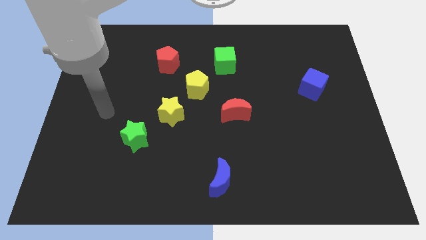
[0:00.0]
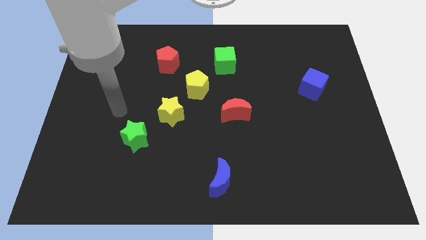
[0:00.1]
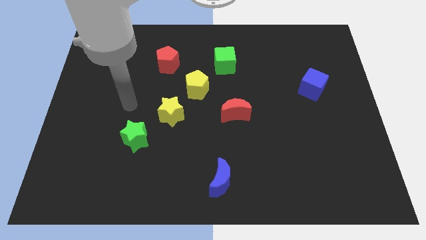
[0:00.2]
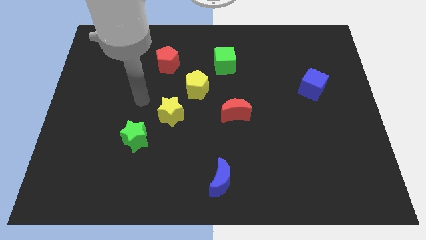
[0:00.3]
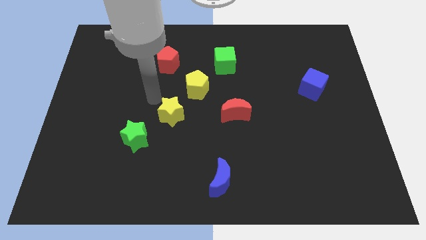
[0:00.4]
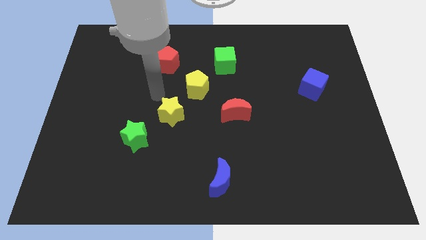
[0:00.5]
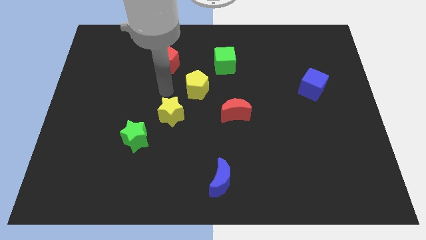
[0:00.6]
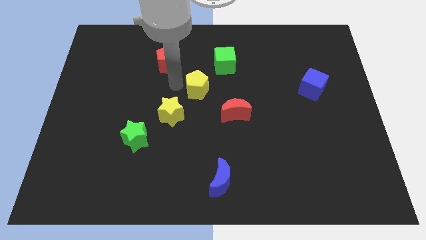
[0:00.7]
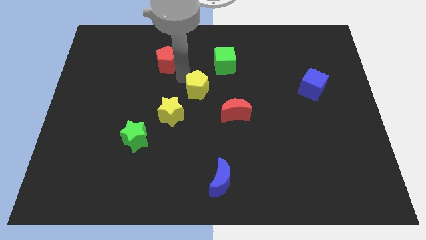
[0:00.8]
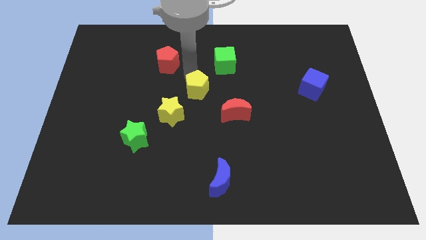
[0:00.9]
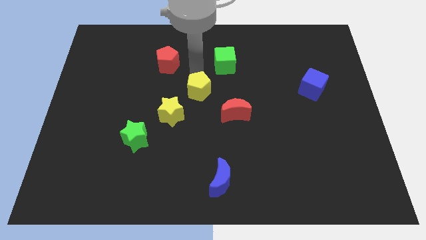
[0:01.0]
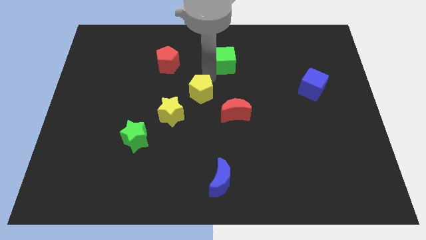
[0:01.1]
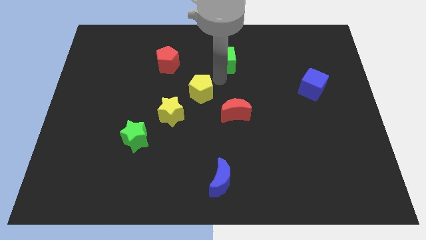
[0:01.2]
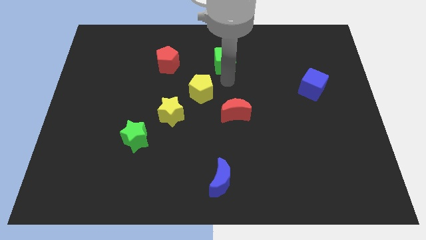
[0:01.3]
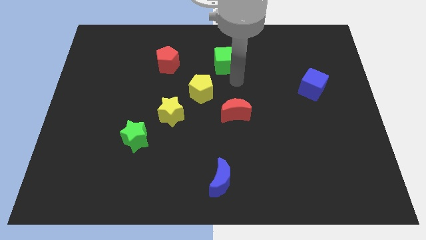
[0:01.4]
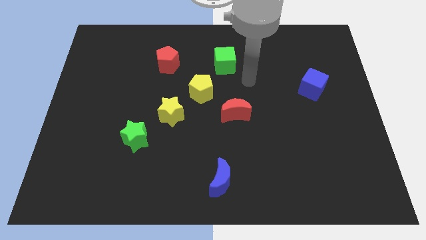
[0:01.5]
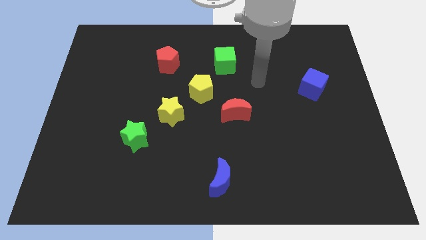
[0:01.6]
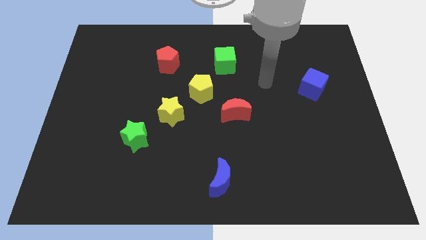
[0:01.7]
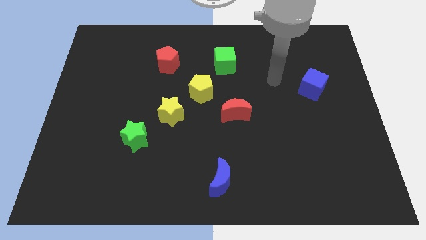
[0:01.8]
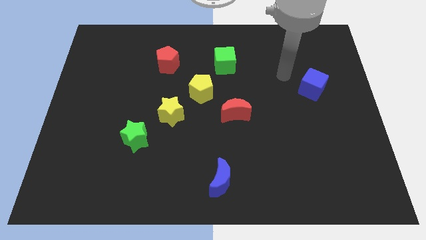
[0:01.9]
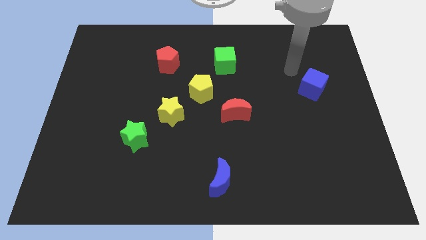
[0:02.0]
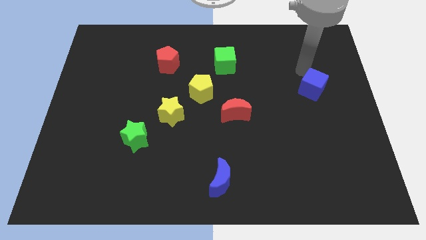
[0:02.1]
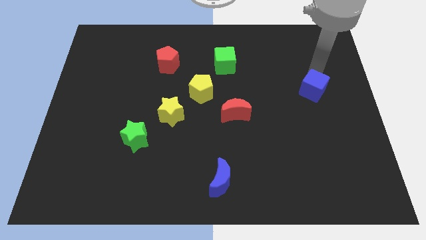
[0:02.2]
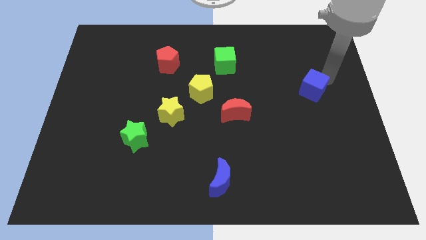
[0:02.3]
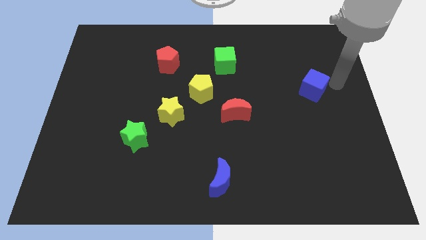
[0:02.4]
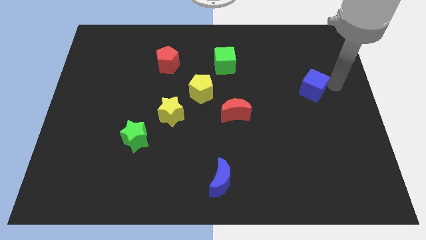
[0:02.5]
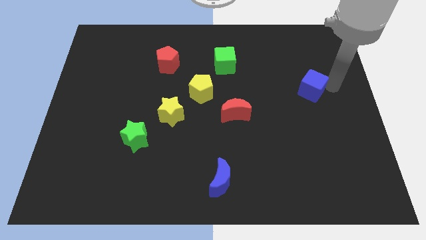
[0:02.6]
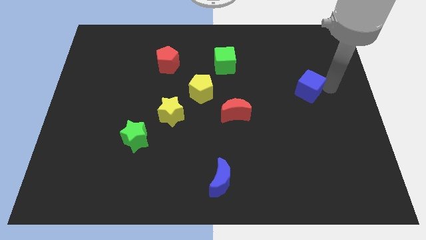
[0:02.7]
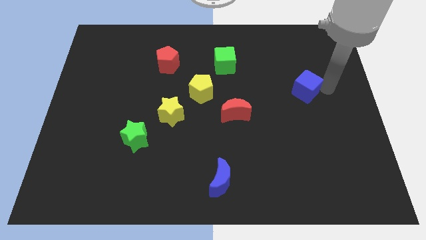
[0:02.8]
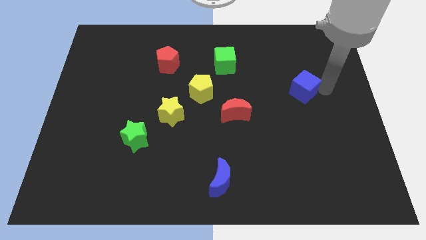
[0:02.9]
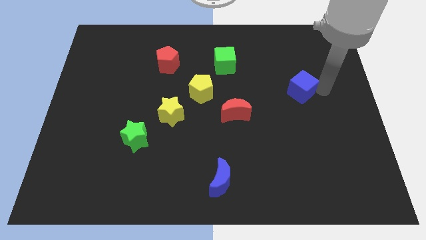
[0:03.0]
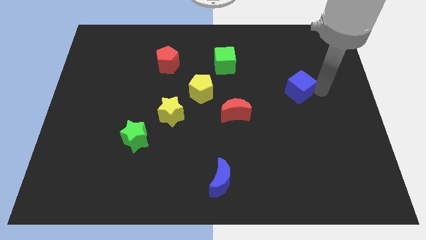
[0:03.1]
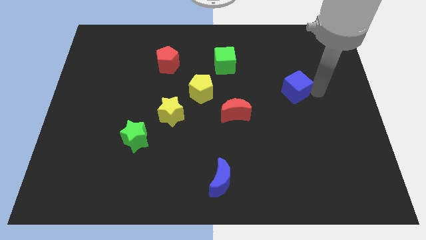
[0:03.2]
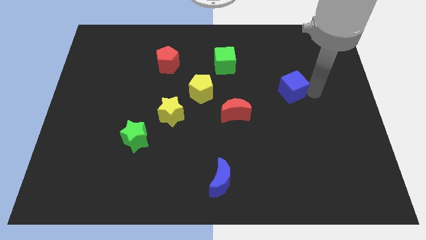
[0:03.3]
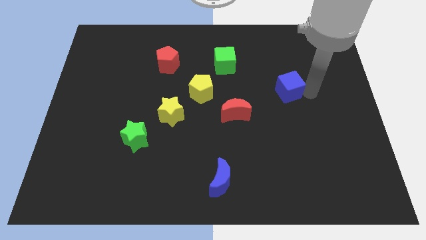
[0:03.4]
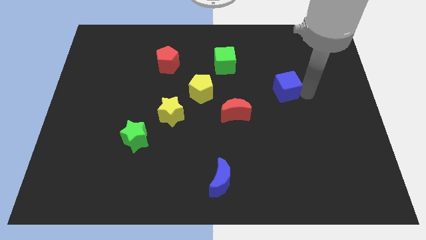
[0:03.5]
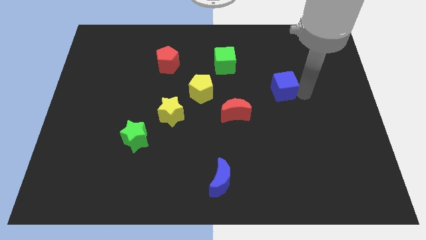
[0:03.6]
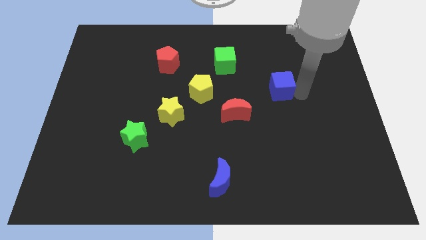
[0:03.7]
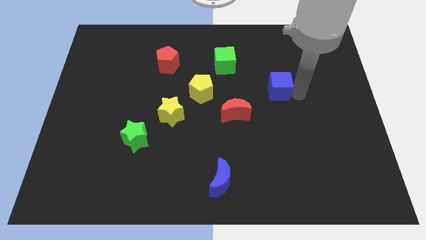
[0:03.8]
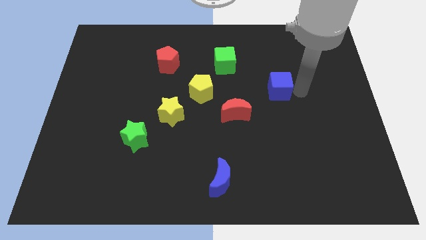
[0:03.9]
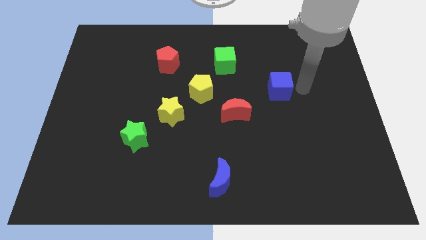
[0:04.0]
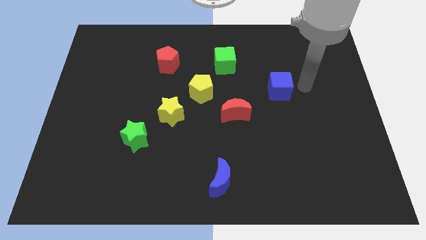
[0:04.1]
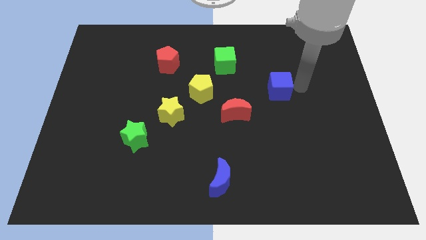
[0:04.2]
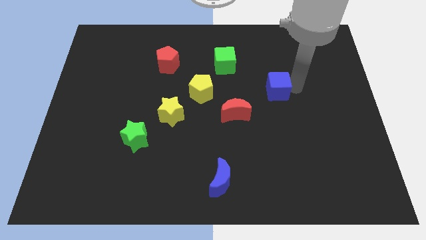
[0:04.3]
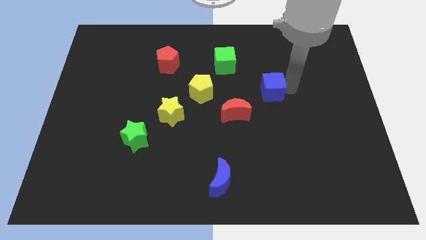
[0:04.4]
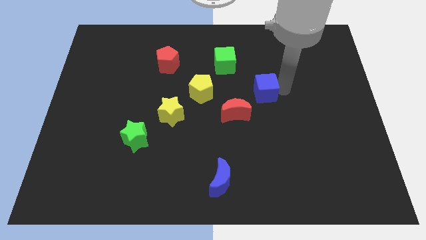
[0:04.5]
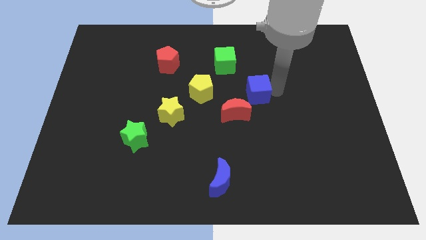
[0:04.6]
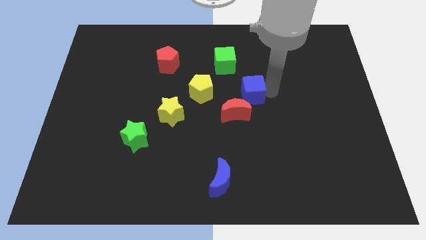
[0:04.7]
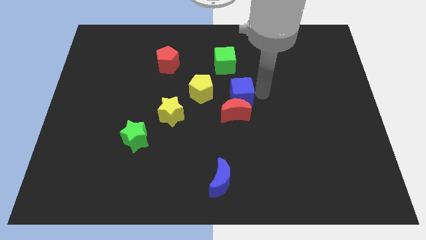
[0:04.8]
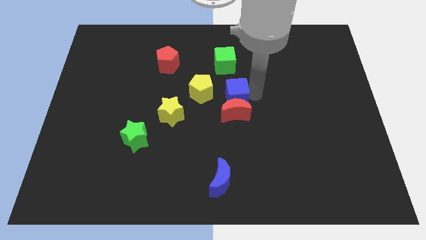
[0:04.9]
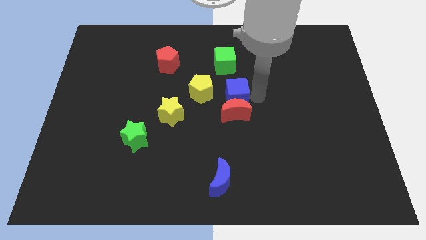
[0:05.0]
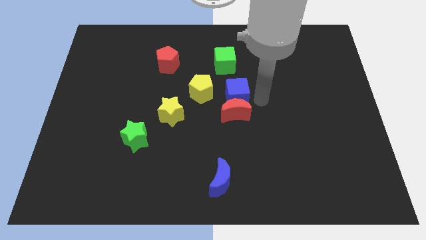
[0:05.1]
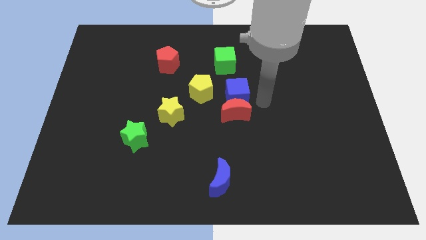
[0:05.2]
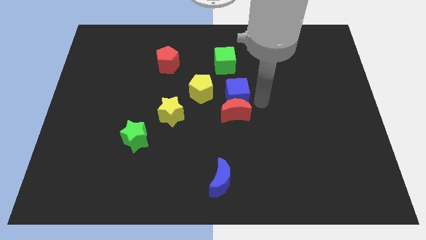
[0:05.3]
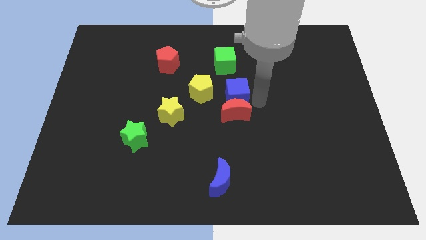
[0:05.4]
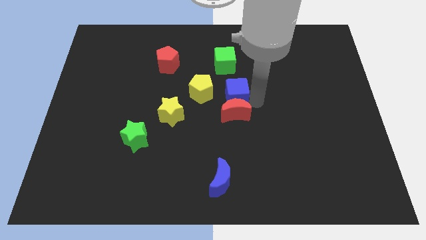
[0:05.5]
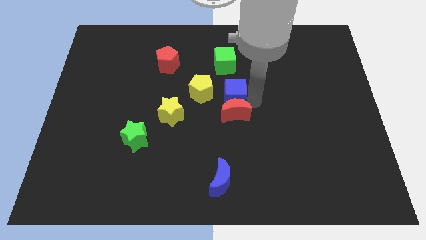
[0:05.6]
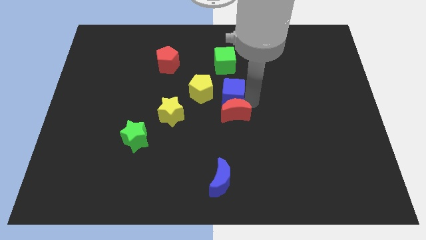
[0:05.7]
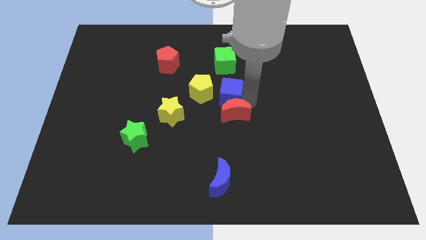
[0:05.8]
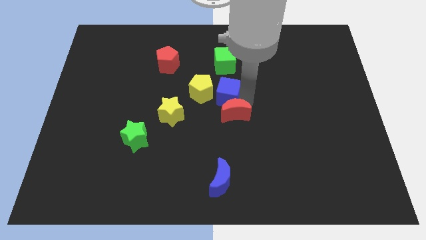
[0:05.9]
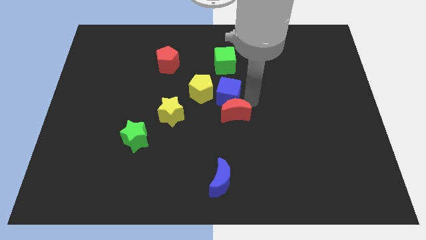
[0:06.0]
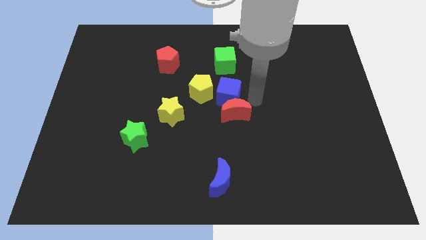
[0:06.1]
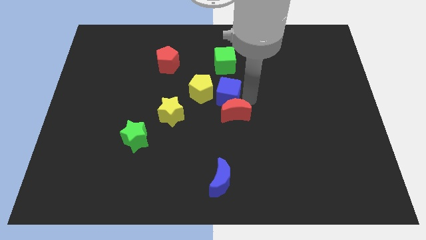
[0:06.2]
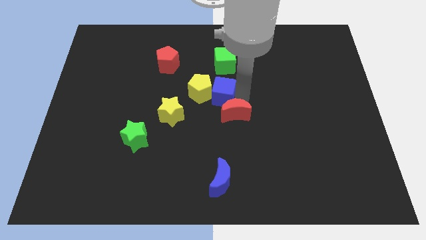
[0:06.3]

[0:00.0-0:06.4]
put the blue cube next to the yellow pentagon

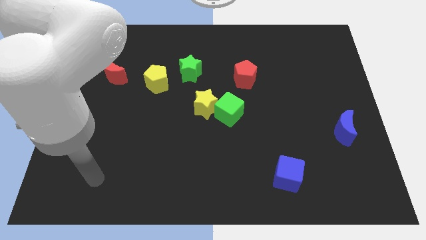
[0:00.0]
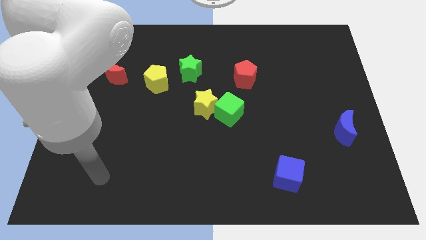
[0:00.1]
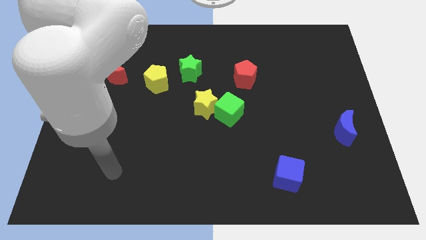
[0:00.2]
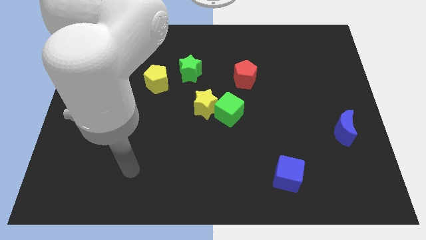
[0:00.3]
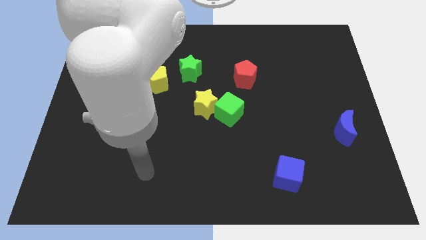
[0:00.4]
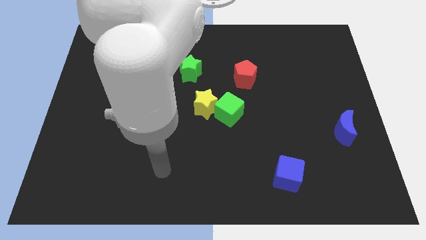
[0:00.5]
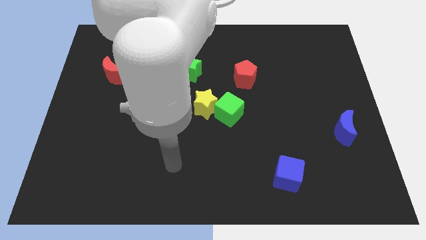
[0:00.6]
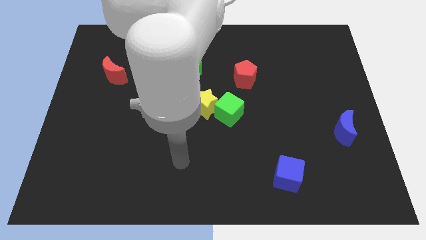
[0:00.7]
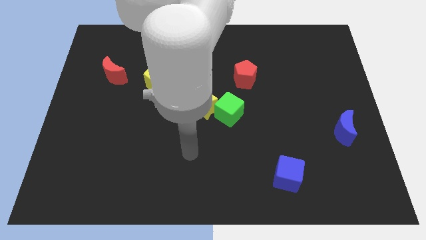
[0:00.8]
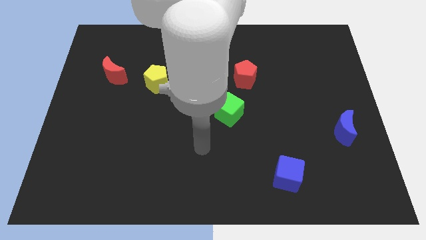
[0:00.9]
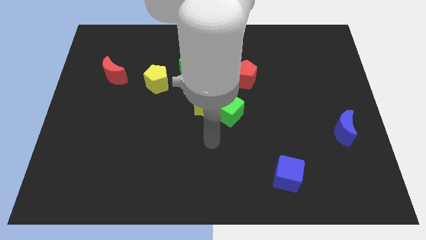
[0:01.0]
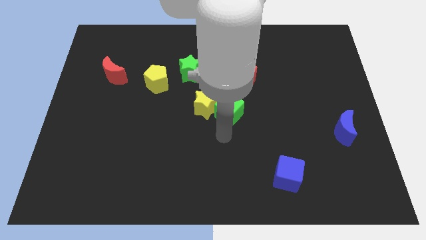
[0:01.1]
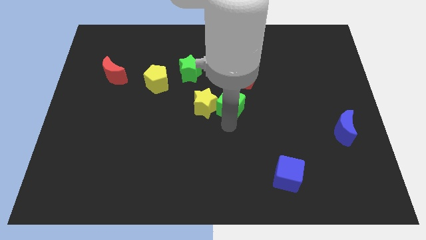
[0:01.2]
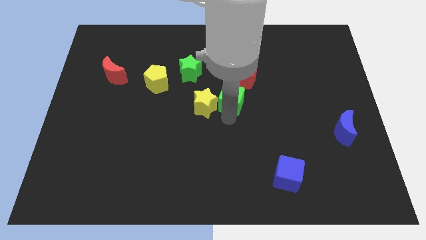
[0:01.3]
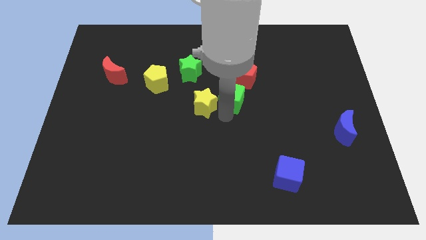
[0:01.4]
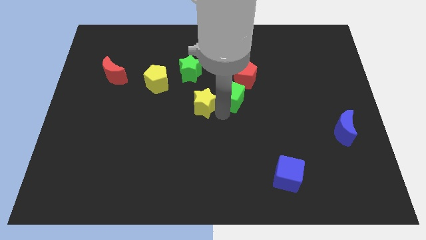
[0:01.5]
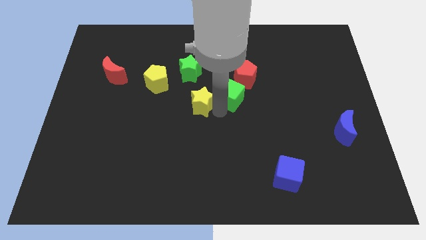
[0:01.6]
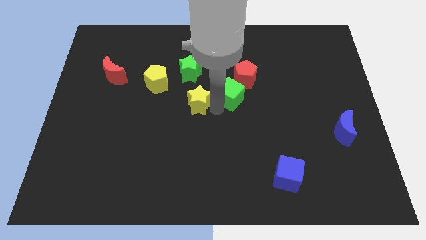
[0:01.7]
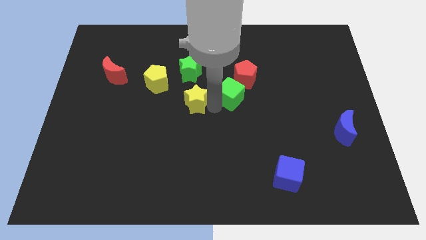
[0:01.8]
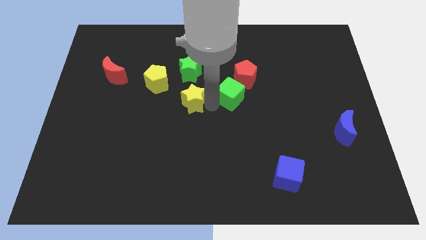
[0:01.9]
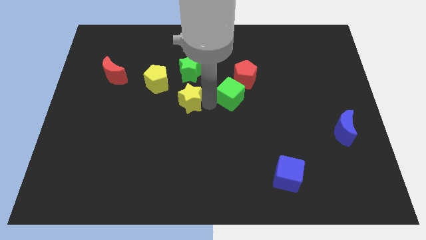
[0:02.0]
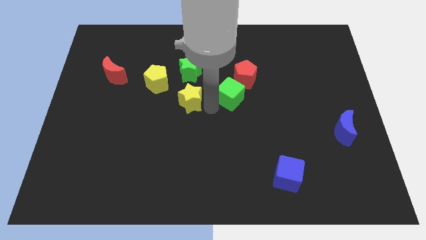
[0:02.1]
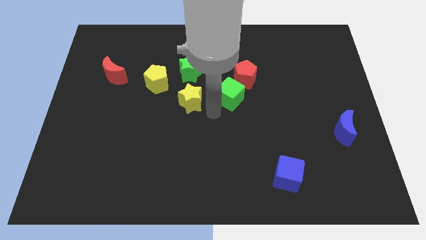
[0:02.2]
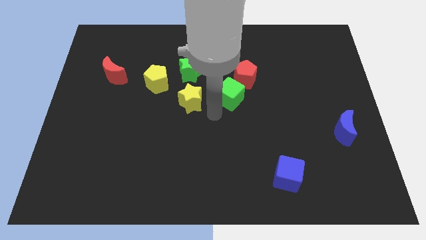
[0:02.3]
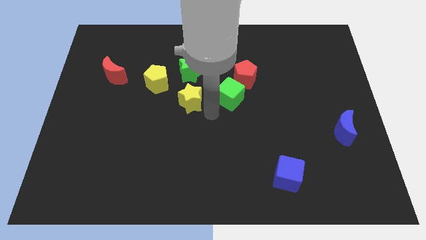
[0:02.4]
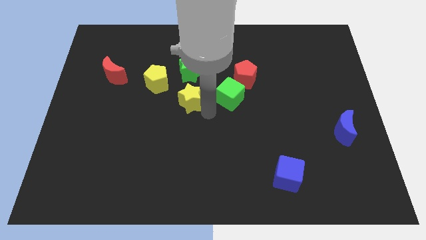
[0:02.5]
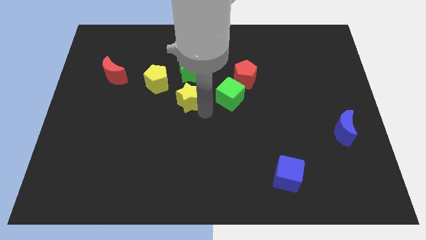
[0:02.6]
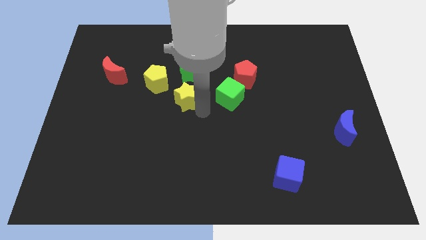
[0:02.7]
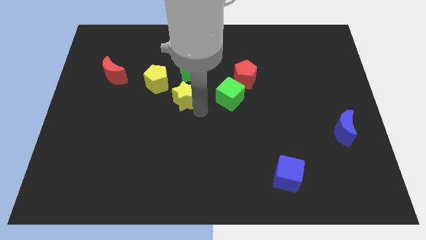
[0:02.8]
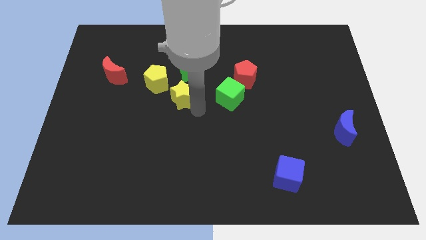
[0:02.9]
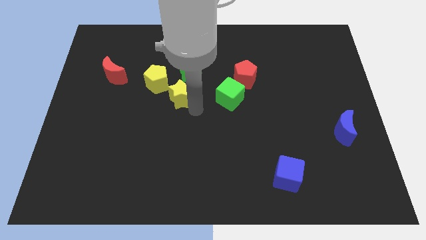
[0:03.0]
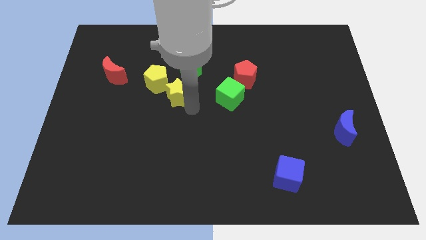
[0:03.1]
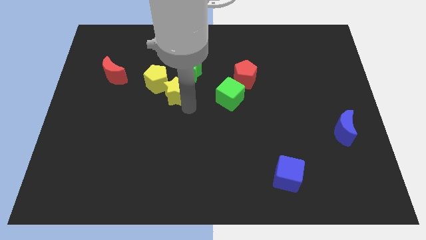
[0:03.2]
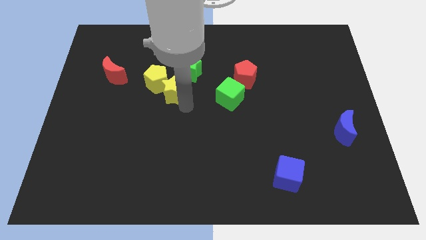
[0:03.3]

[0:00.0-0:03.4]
put the yellow star to the yellow pentagon
